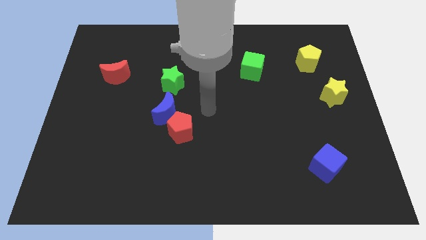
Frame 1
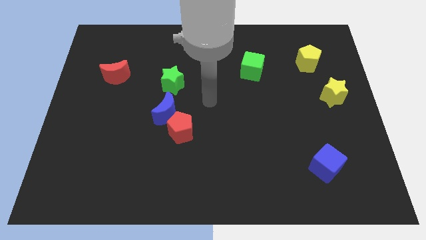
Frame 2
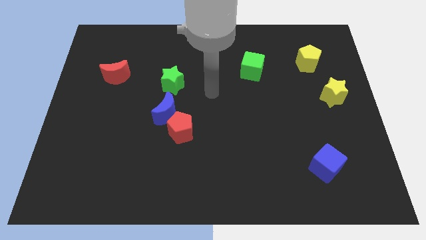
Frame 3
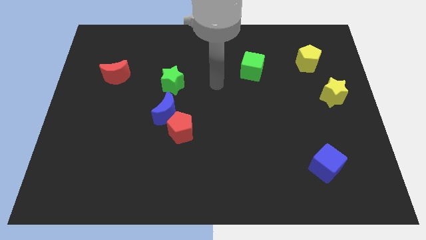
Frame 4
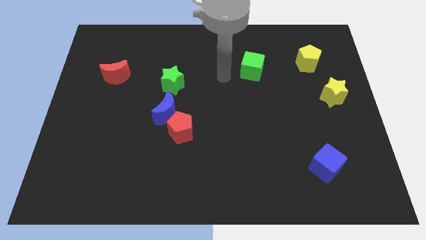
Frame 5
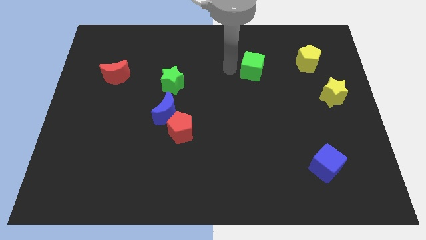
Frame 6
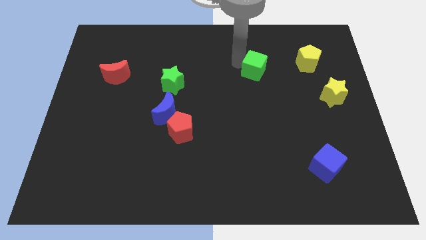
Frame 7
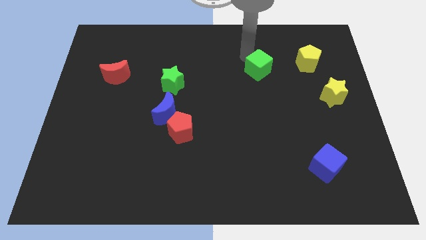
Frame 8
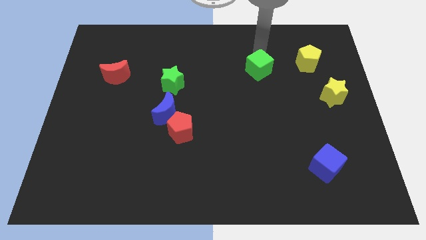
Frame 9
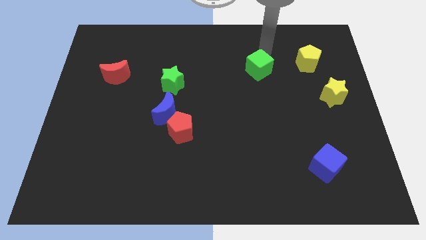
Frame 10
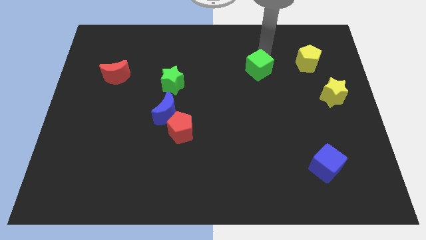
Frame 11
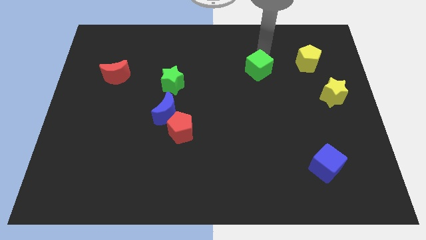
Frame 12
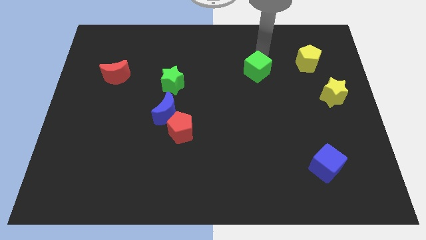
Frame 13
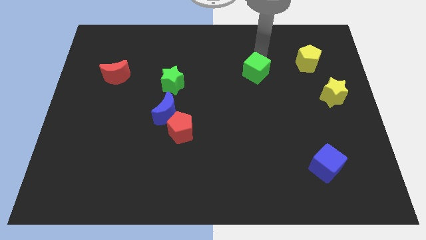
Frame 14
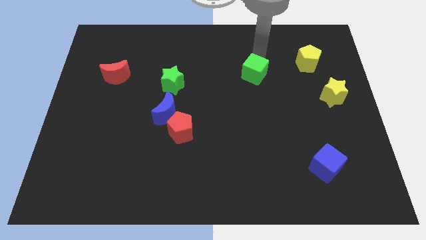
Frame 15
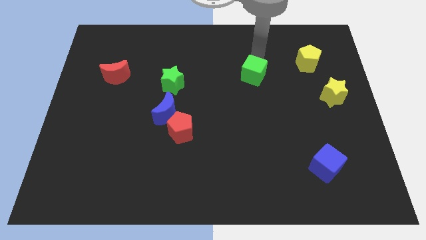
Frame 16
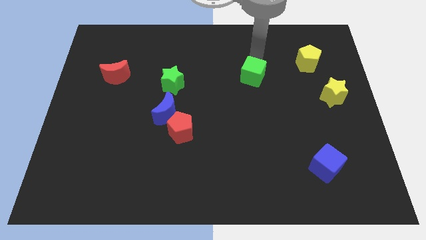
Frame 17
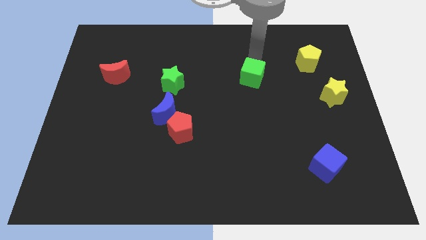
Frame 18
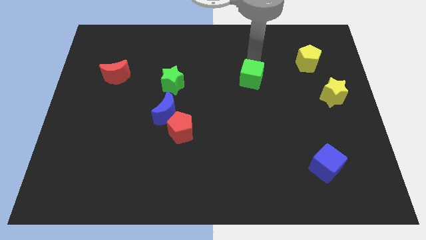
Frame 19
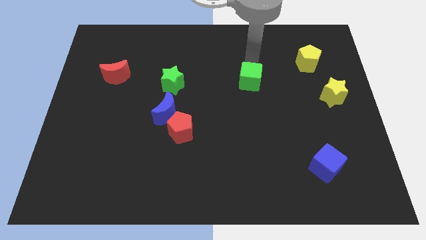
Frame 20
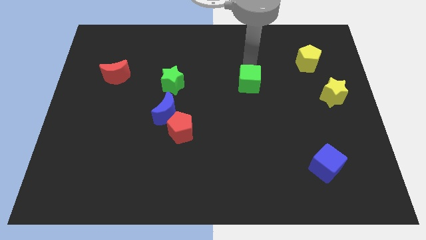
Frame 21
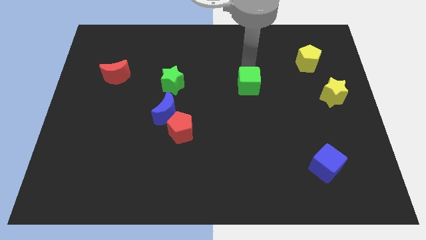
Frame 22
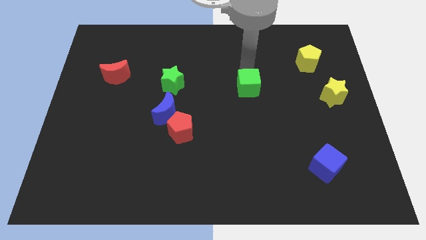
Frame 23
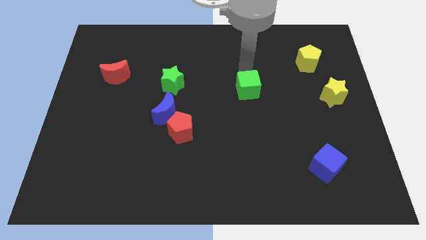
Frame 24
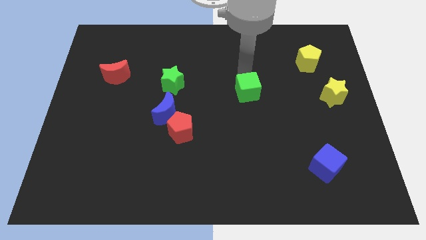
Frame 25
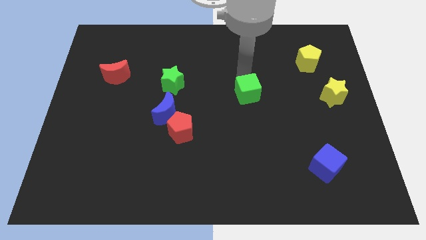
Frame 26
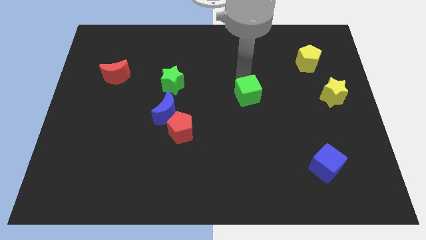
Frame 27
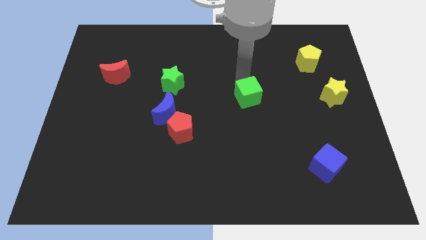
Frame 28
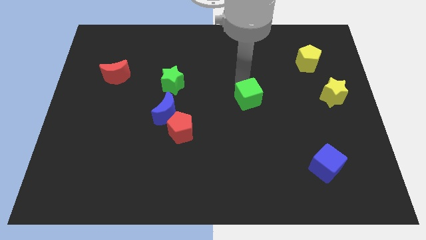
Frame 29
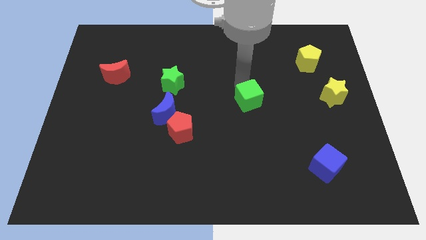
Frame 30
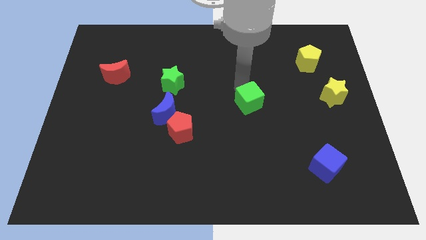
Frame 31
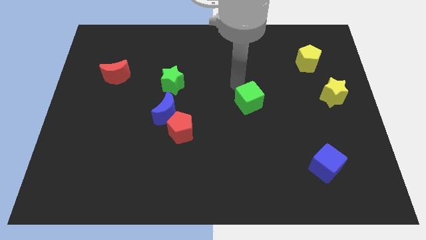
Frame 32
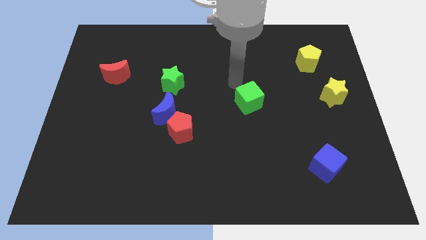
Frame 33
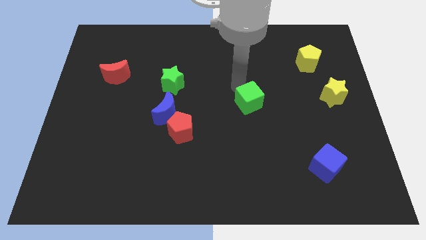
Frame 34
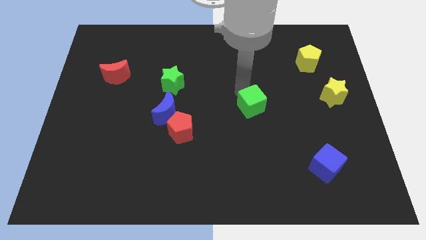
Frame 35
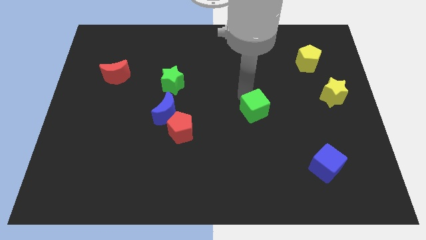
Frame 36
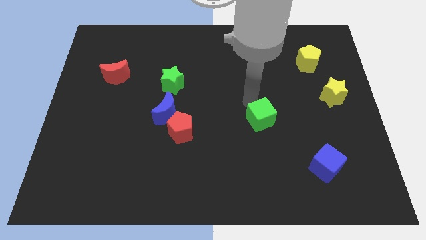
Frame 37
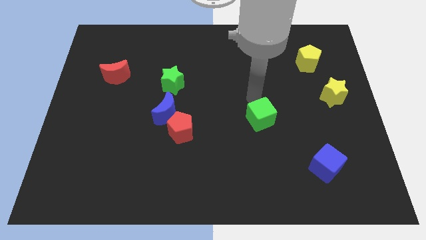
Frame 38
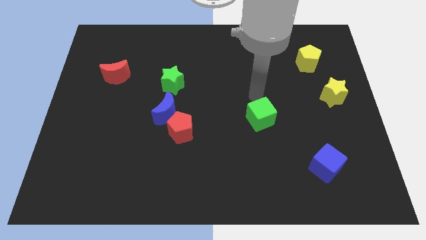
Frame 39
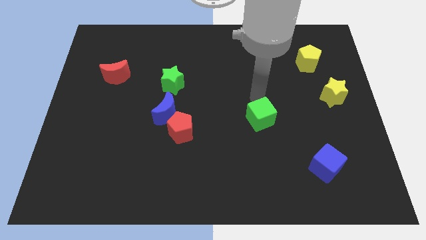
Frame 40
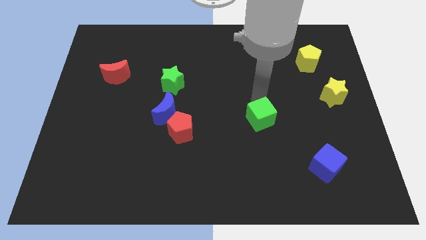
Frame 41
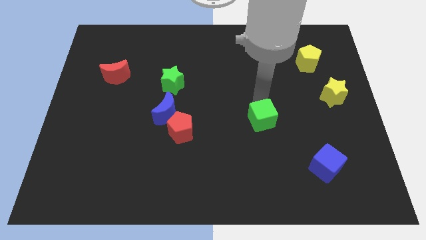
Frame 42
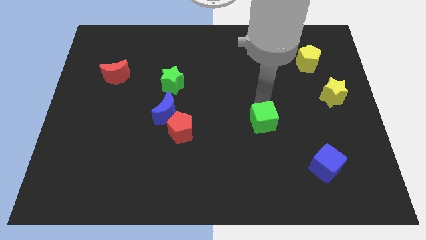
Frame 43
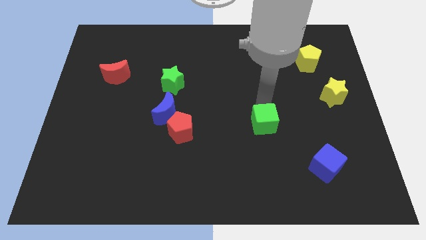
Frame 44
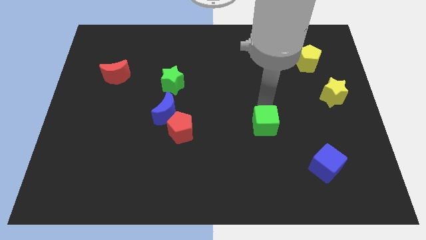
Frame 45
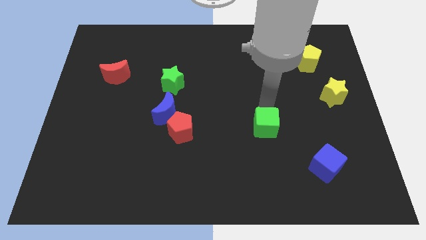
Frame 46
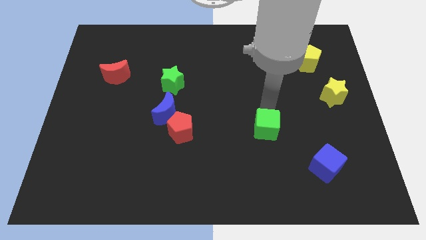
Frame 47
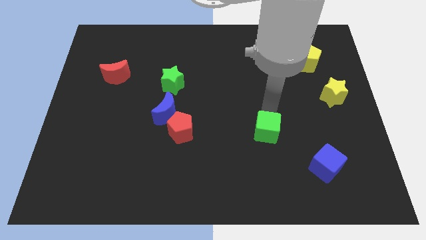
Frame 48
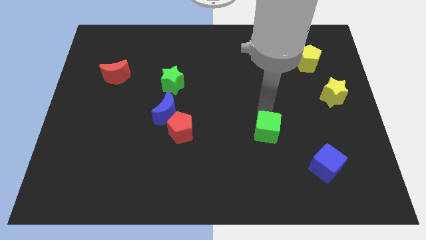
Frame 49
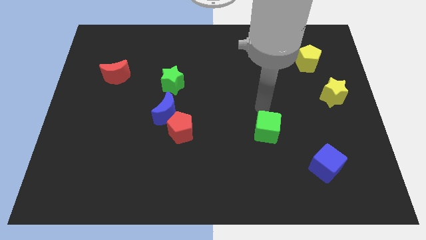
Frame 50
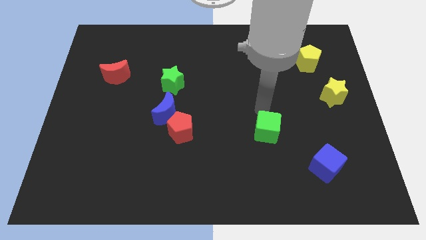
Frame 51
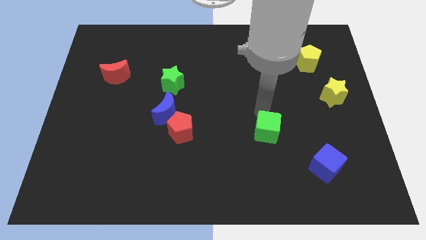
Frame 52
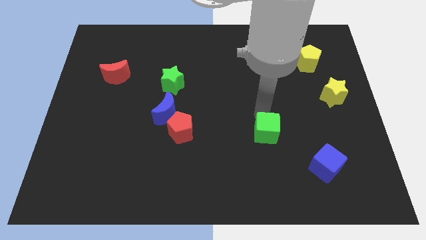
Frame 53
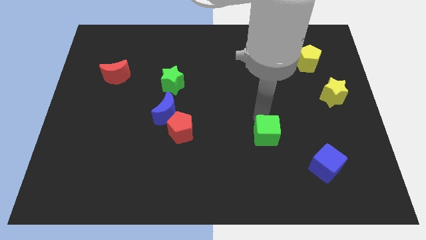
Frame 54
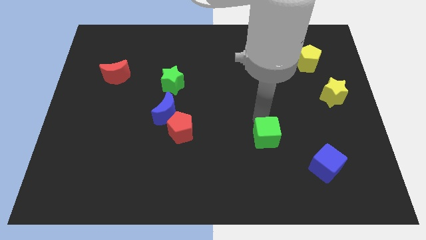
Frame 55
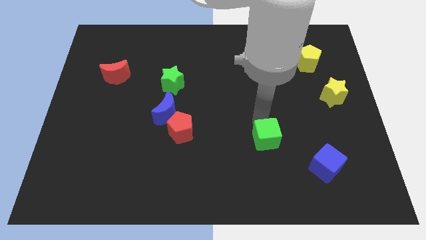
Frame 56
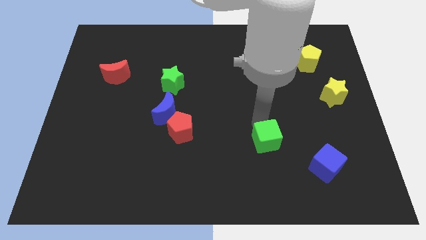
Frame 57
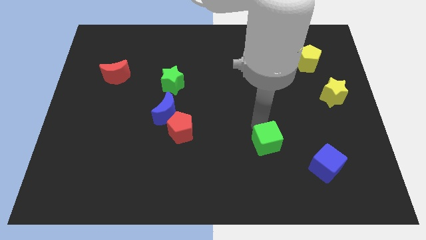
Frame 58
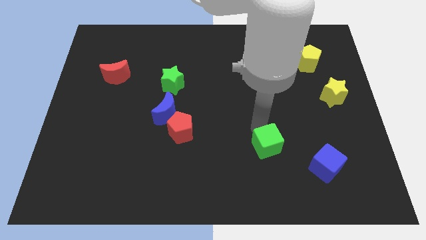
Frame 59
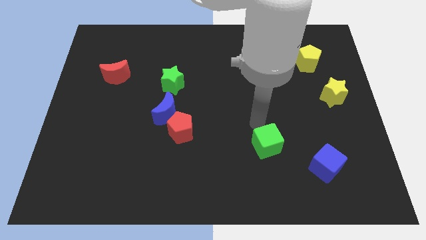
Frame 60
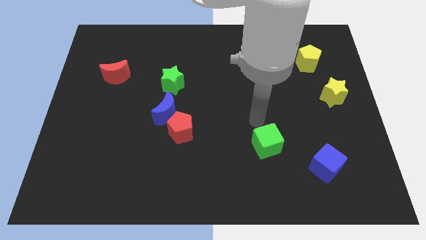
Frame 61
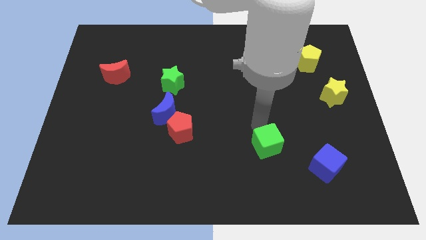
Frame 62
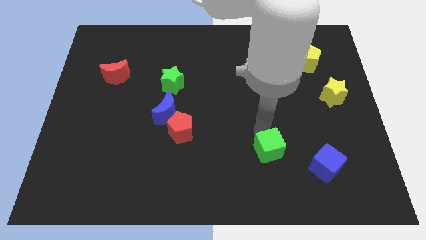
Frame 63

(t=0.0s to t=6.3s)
slide the green cube to the left side of the blue cube

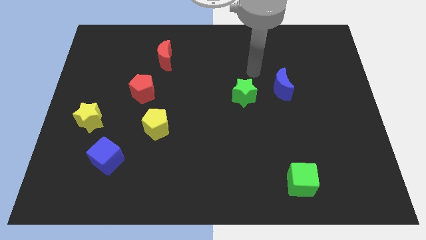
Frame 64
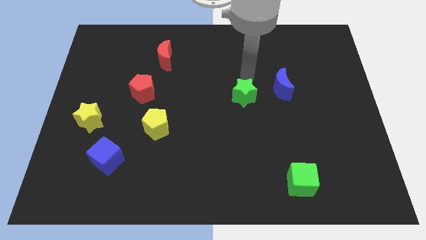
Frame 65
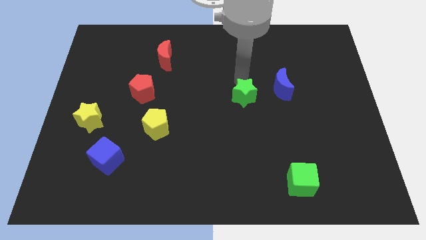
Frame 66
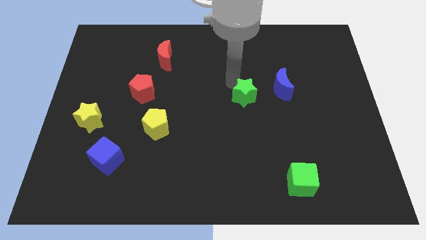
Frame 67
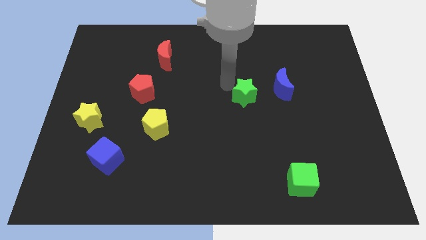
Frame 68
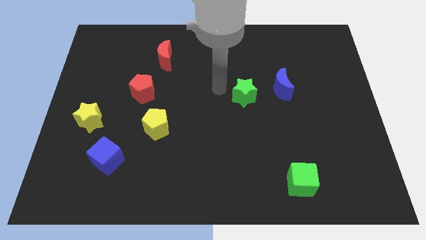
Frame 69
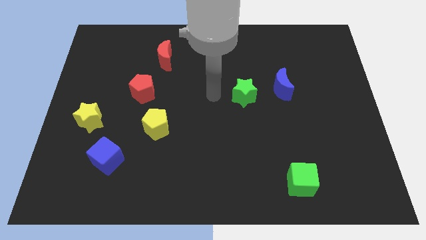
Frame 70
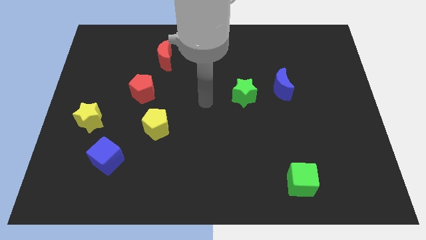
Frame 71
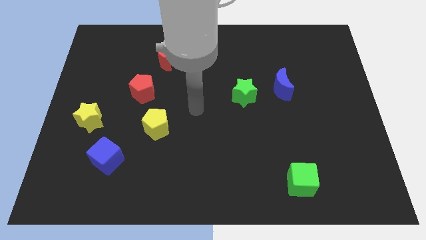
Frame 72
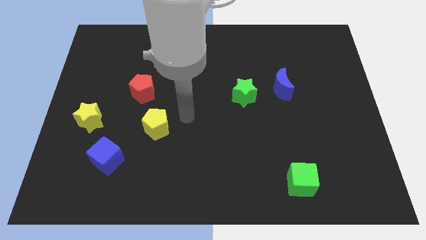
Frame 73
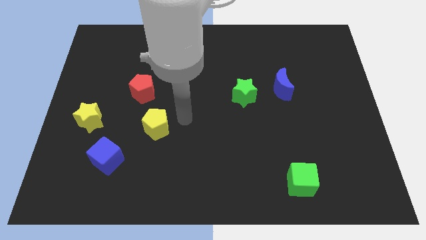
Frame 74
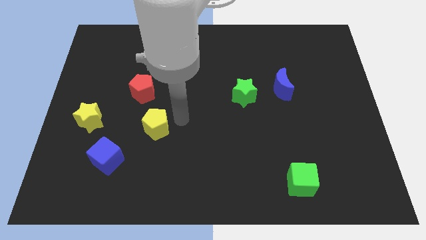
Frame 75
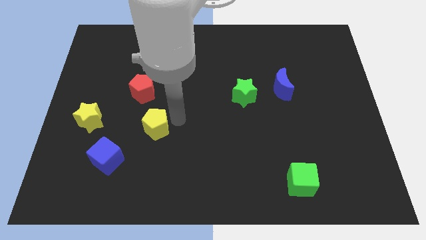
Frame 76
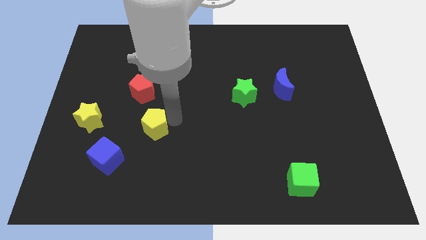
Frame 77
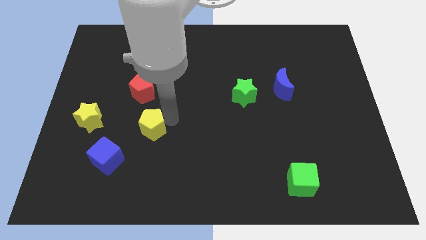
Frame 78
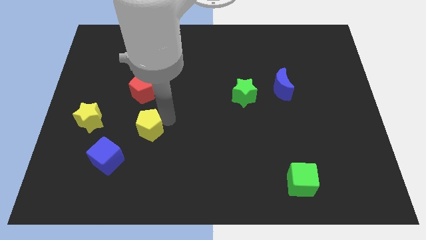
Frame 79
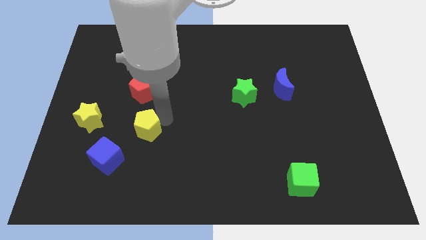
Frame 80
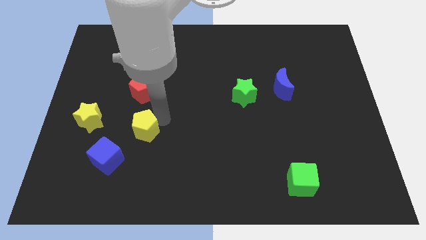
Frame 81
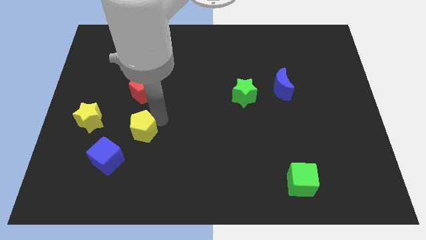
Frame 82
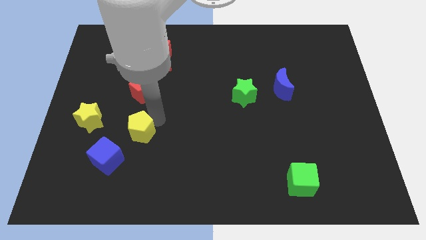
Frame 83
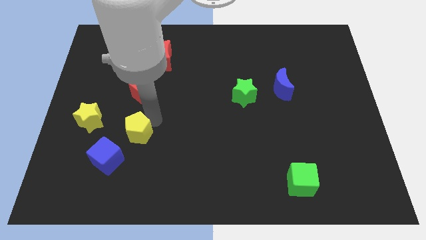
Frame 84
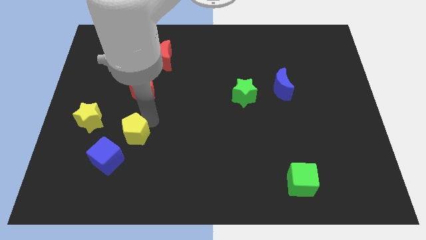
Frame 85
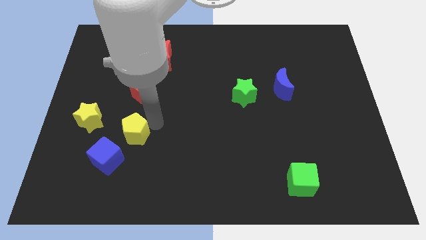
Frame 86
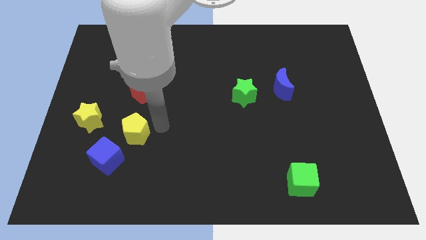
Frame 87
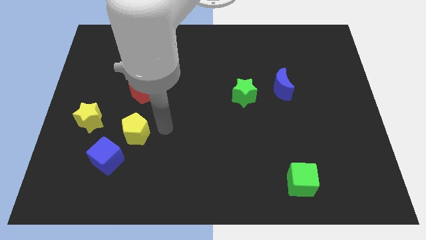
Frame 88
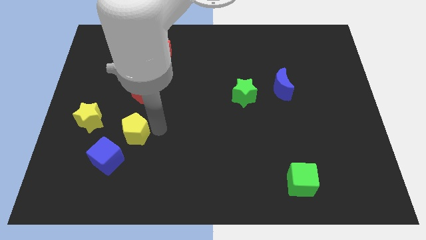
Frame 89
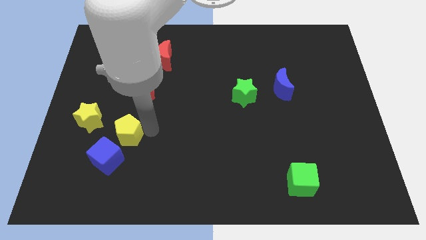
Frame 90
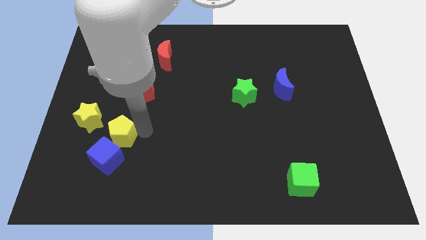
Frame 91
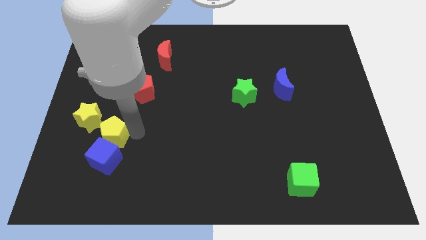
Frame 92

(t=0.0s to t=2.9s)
put the yellow pentagon to the top left of the blue cube
